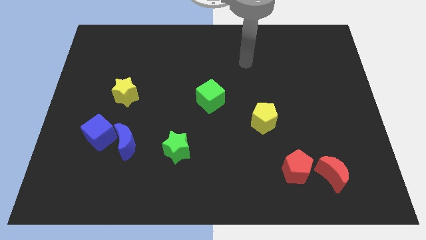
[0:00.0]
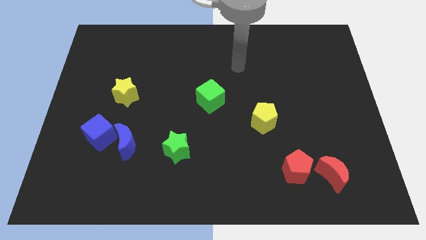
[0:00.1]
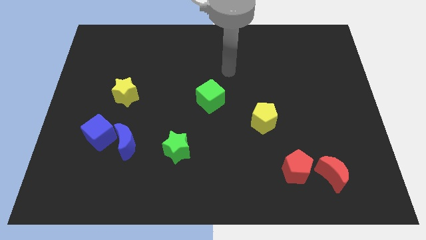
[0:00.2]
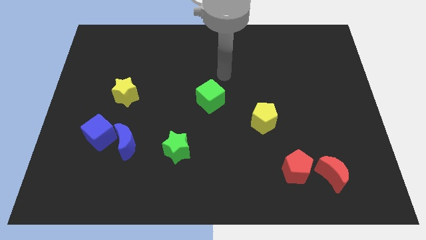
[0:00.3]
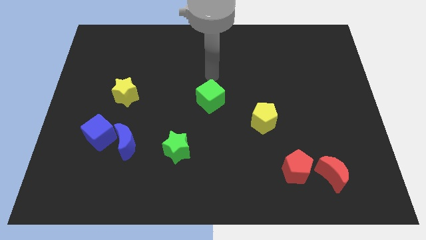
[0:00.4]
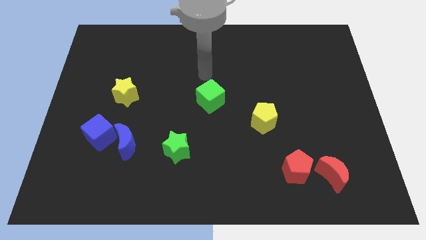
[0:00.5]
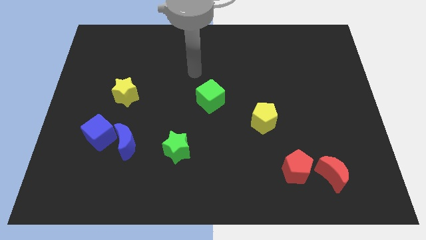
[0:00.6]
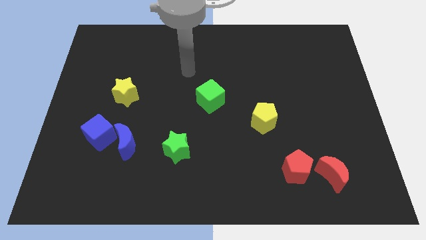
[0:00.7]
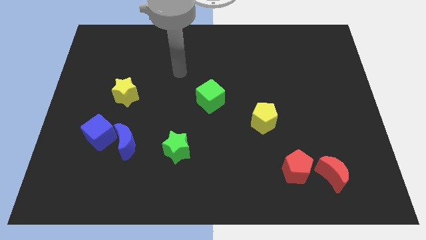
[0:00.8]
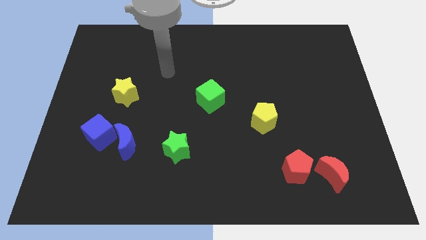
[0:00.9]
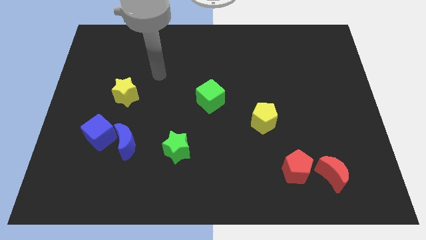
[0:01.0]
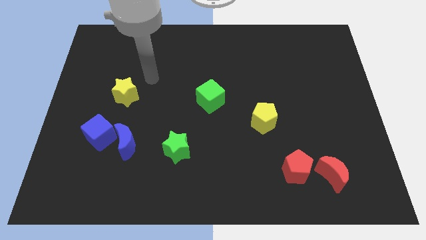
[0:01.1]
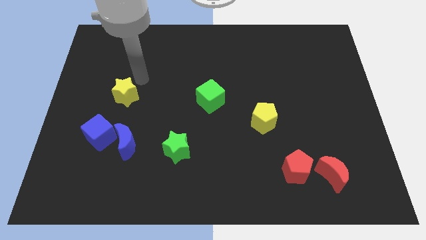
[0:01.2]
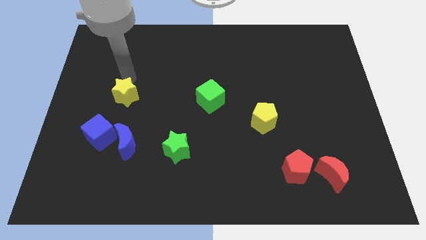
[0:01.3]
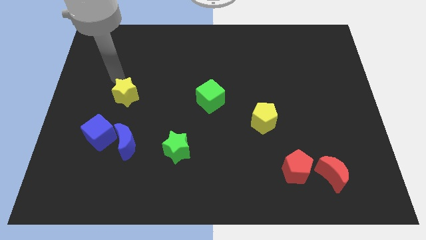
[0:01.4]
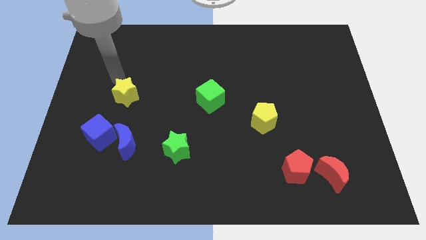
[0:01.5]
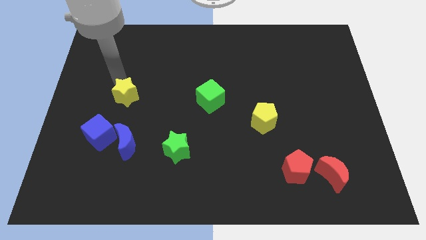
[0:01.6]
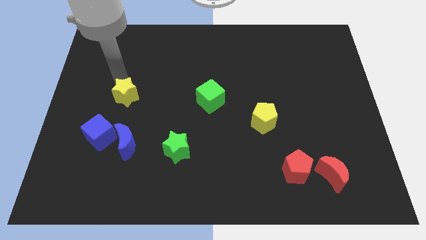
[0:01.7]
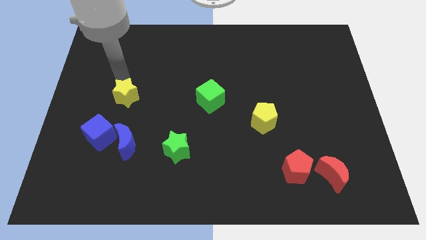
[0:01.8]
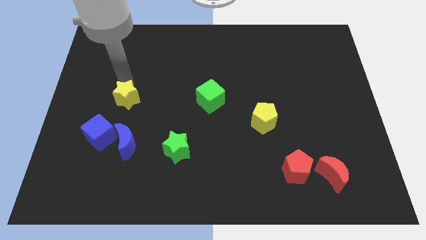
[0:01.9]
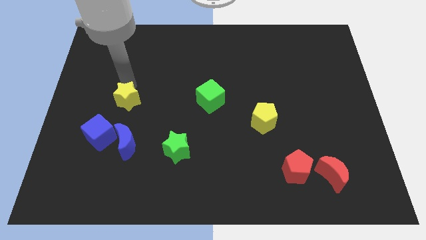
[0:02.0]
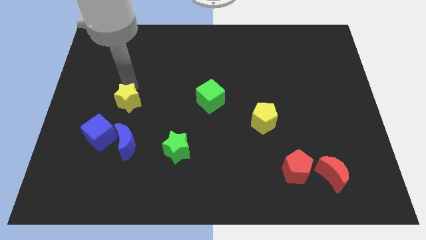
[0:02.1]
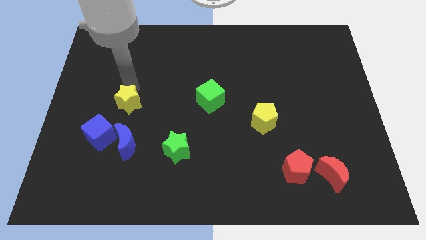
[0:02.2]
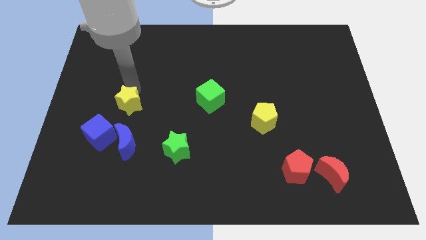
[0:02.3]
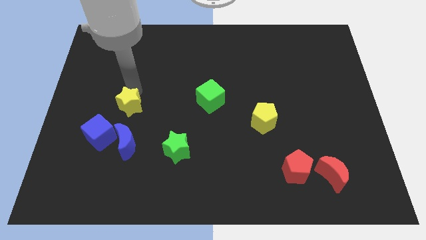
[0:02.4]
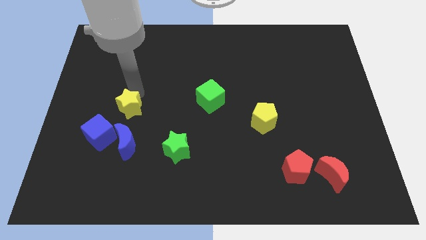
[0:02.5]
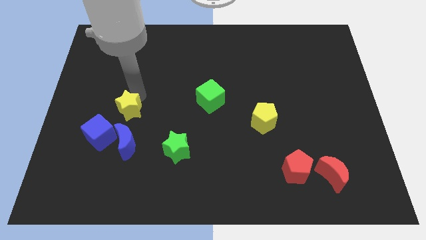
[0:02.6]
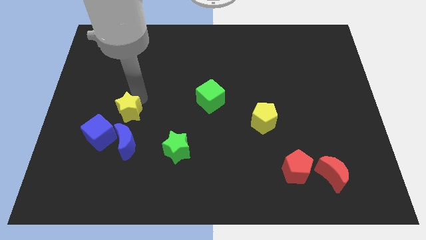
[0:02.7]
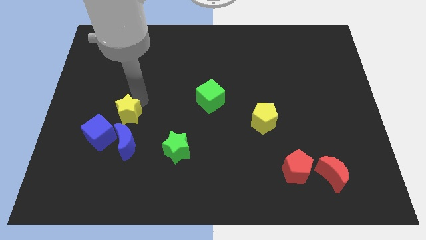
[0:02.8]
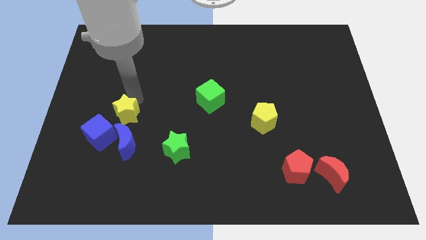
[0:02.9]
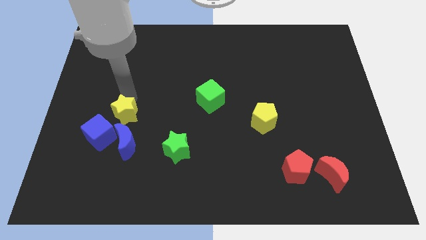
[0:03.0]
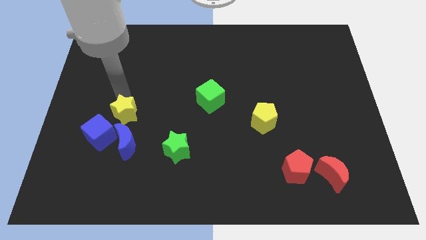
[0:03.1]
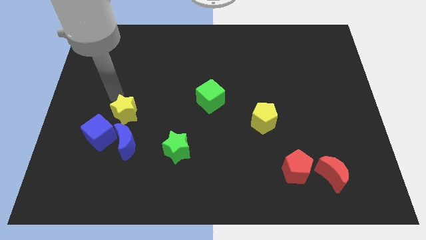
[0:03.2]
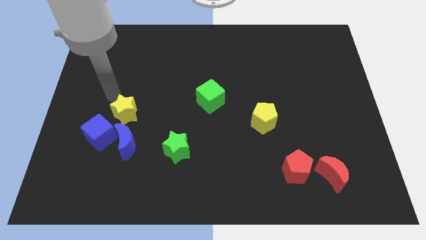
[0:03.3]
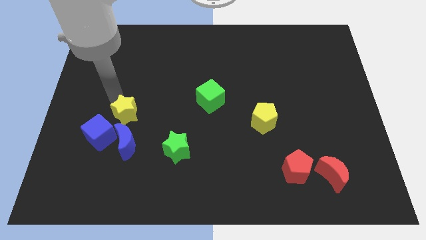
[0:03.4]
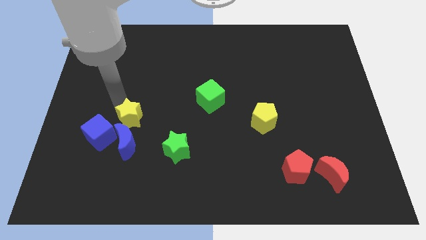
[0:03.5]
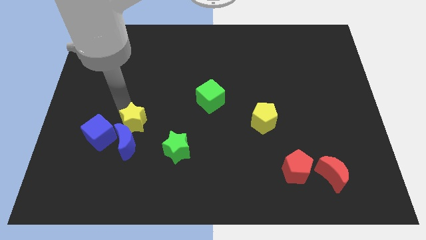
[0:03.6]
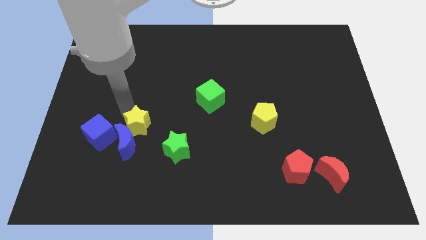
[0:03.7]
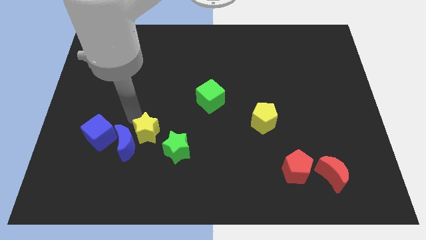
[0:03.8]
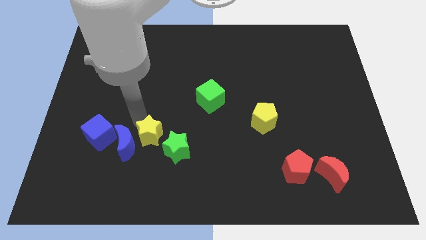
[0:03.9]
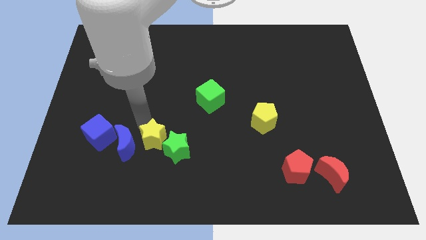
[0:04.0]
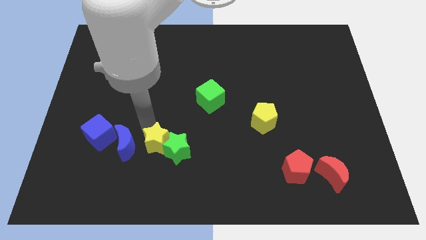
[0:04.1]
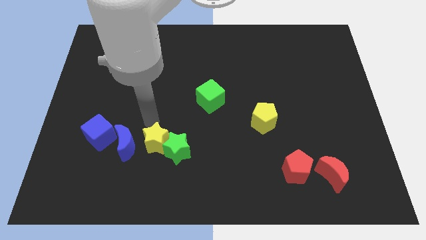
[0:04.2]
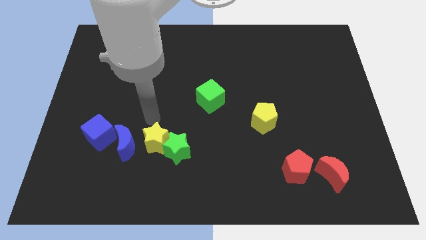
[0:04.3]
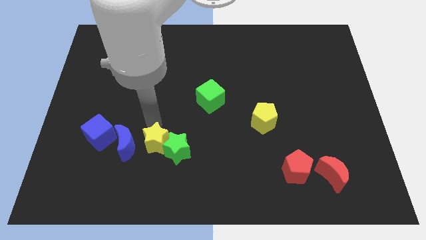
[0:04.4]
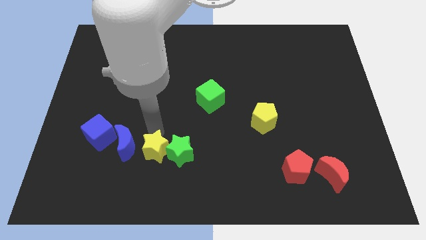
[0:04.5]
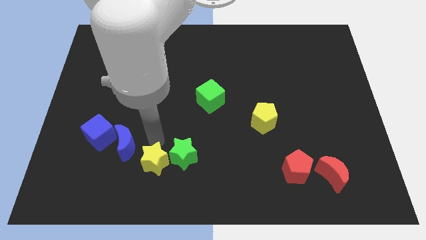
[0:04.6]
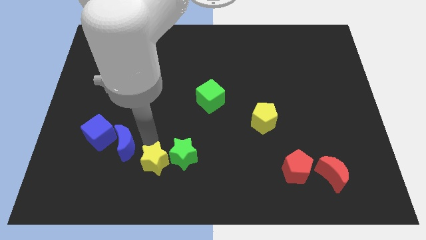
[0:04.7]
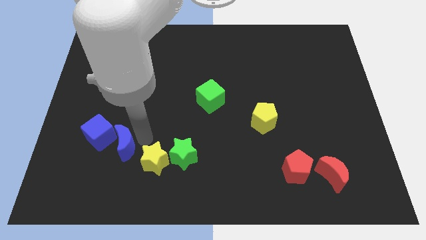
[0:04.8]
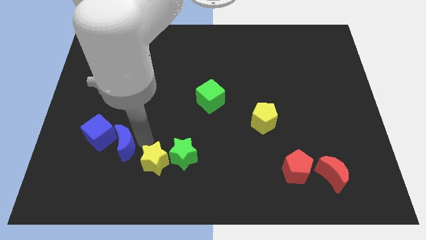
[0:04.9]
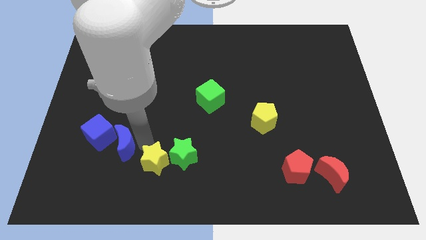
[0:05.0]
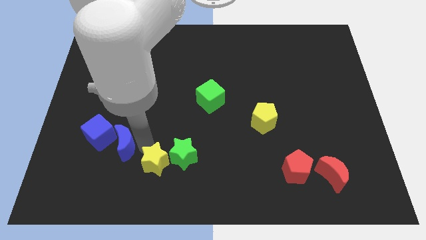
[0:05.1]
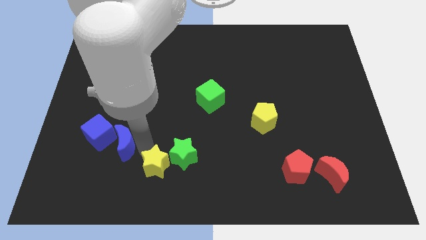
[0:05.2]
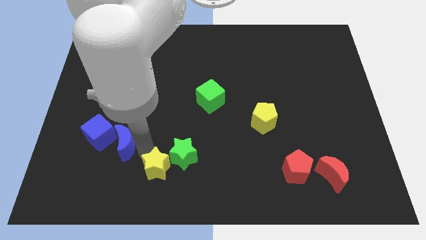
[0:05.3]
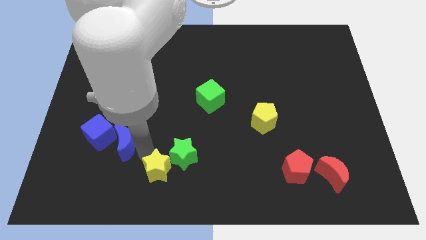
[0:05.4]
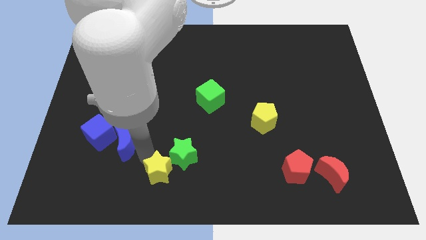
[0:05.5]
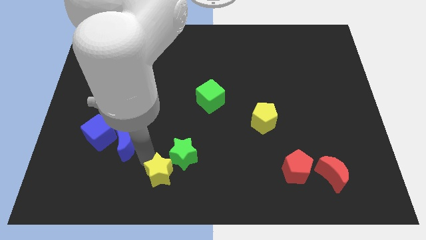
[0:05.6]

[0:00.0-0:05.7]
put the yellow star to the bottom side

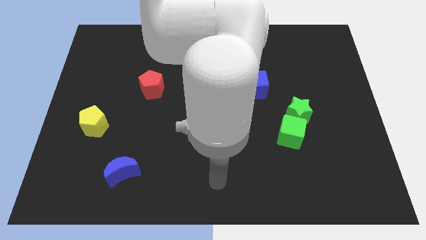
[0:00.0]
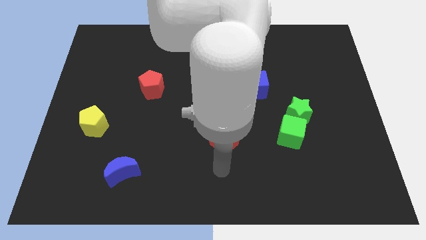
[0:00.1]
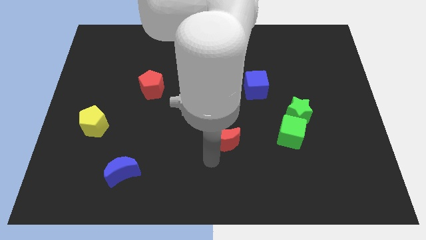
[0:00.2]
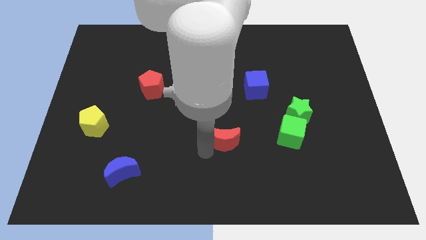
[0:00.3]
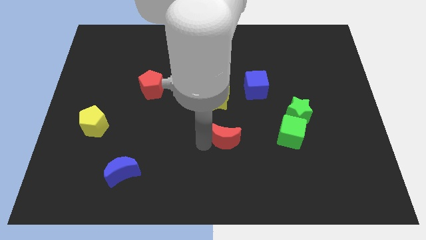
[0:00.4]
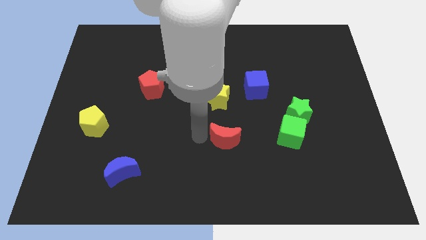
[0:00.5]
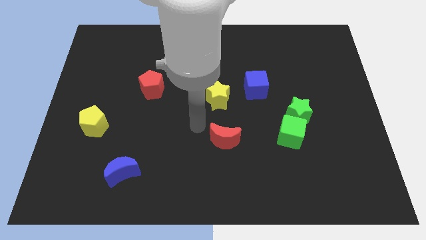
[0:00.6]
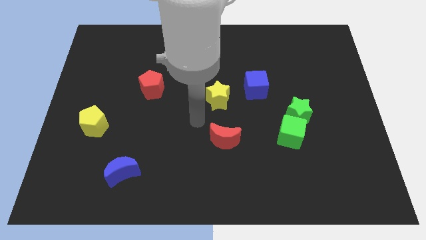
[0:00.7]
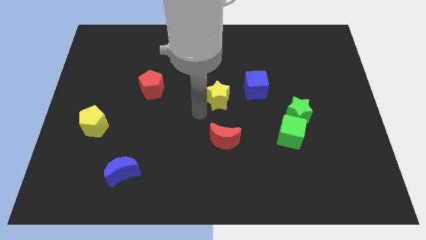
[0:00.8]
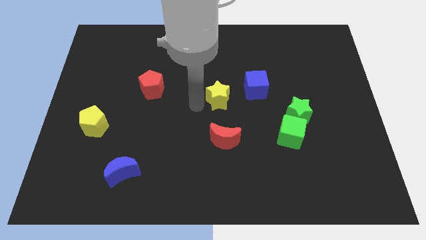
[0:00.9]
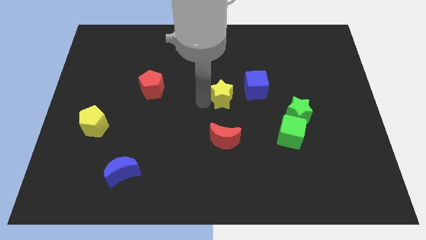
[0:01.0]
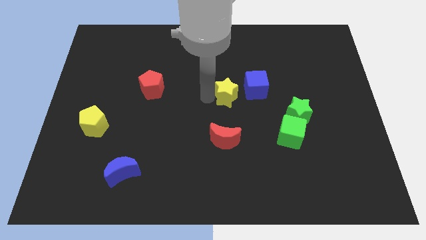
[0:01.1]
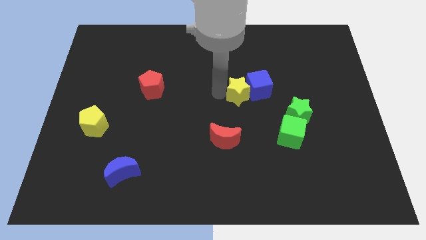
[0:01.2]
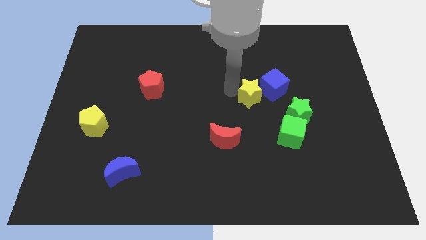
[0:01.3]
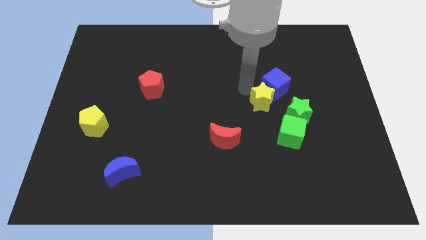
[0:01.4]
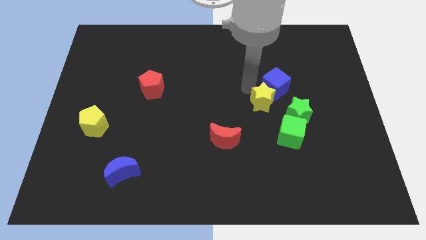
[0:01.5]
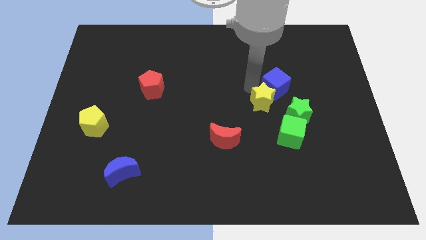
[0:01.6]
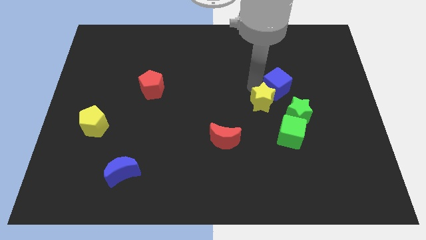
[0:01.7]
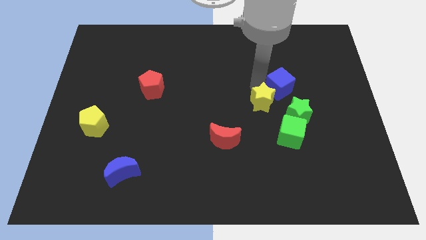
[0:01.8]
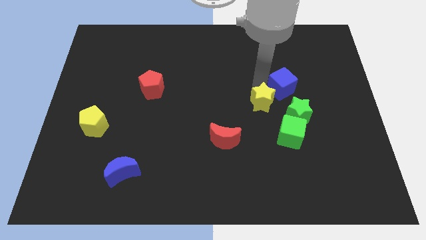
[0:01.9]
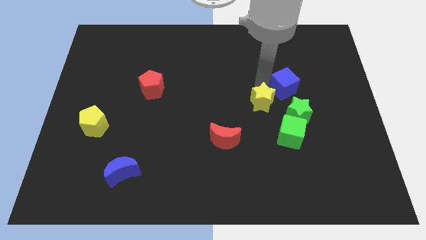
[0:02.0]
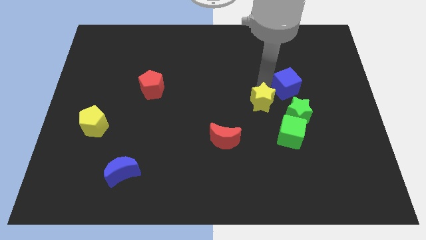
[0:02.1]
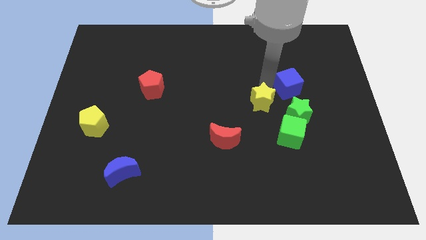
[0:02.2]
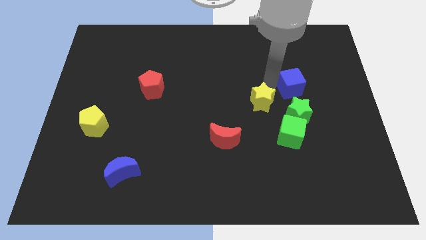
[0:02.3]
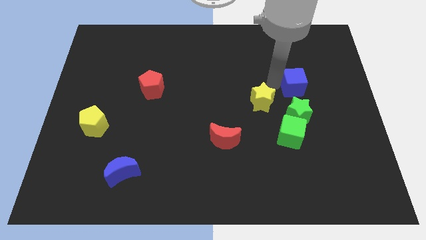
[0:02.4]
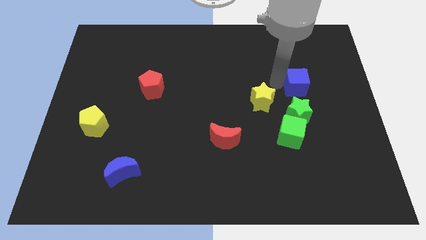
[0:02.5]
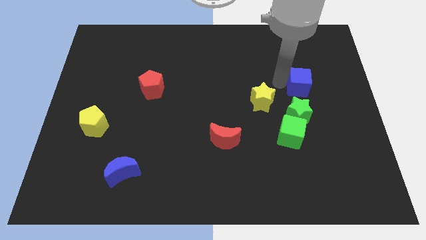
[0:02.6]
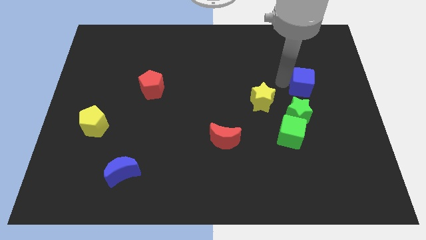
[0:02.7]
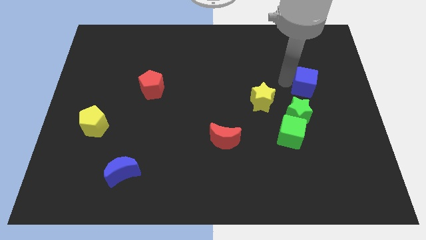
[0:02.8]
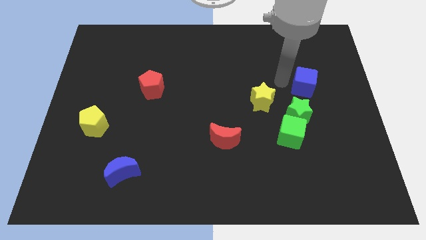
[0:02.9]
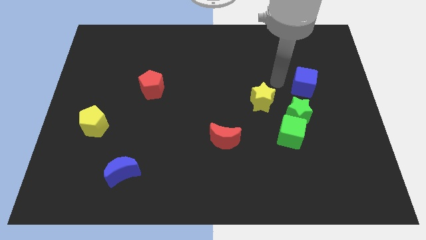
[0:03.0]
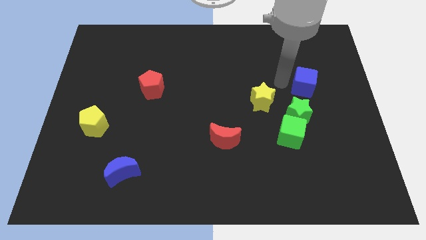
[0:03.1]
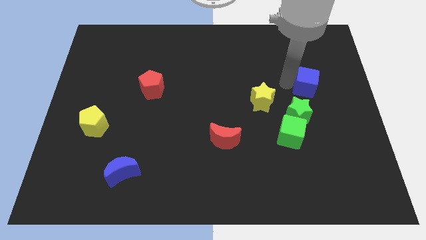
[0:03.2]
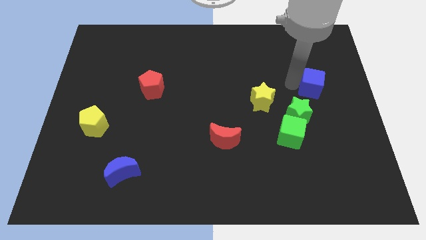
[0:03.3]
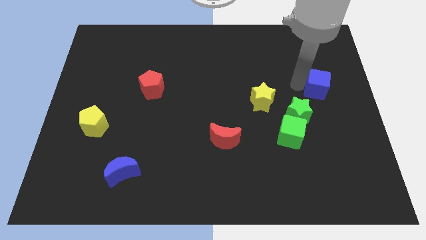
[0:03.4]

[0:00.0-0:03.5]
push the blue cube to the right side of the board
